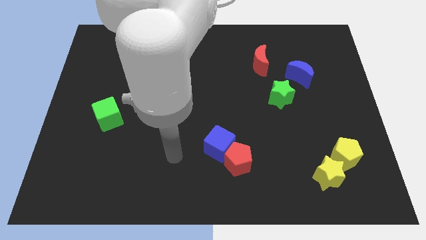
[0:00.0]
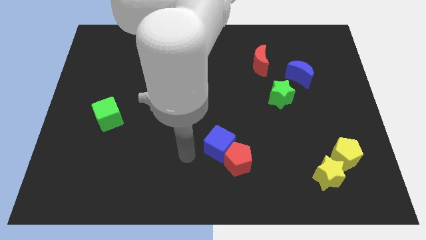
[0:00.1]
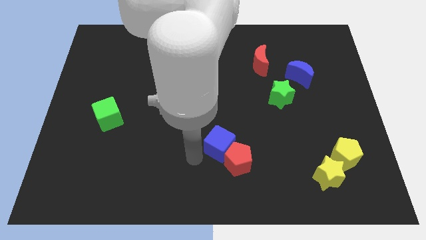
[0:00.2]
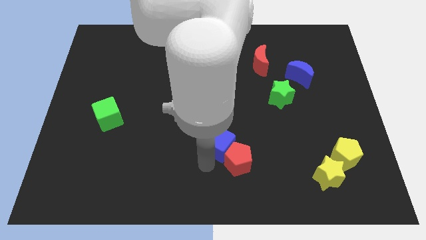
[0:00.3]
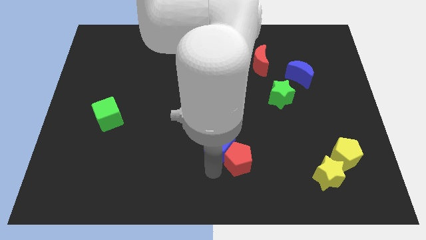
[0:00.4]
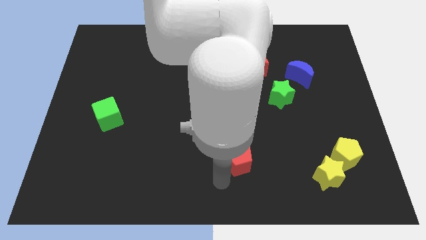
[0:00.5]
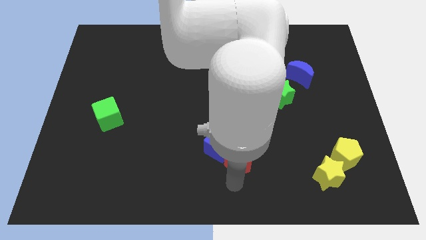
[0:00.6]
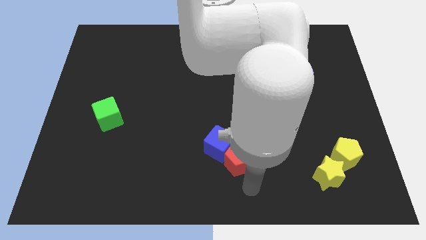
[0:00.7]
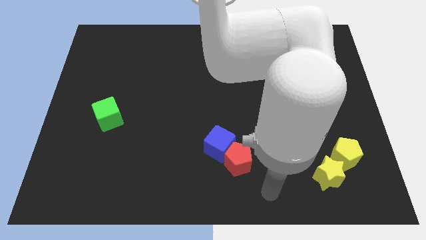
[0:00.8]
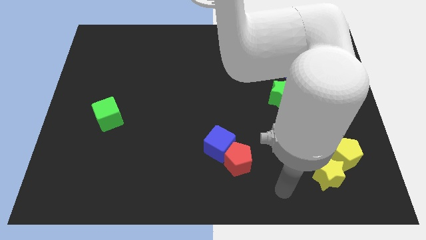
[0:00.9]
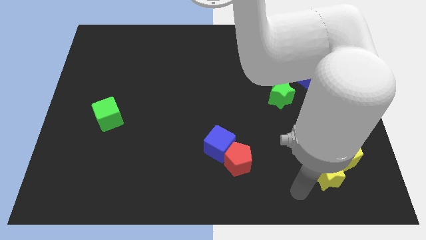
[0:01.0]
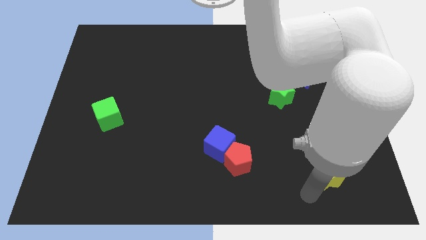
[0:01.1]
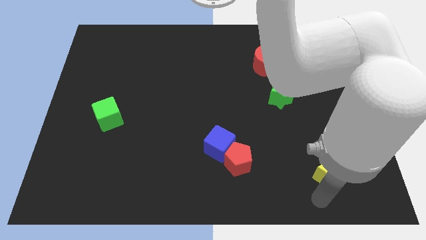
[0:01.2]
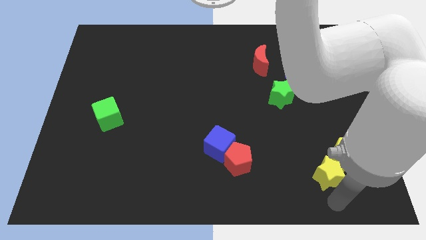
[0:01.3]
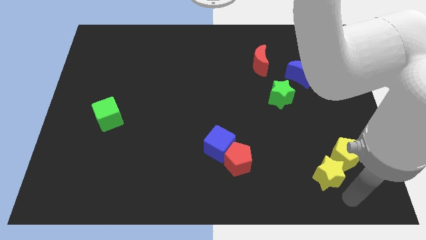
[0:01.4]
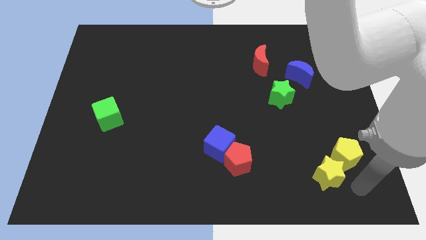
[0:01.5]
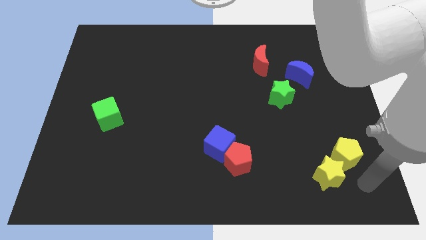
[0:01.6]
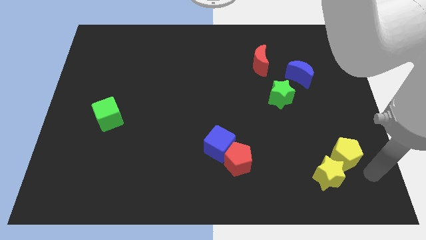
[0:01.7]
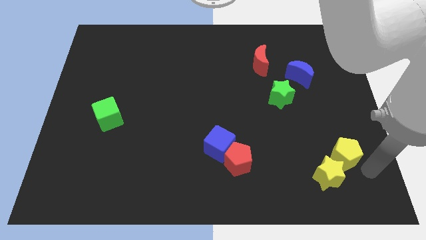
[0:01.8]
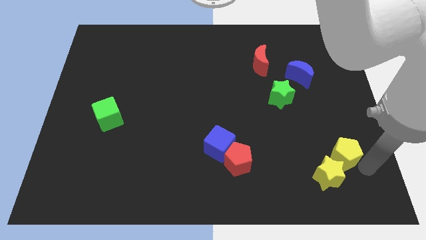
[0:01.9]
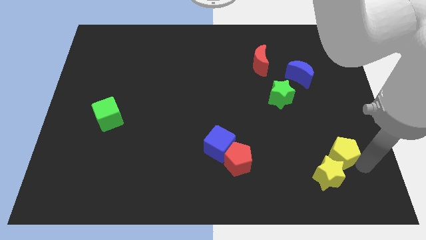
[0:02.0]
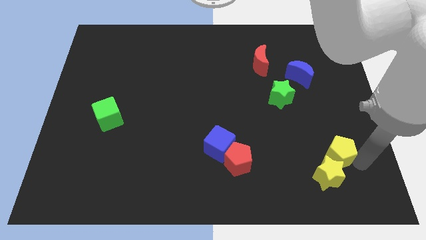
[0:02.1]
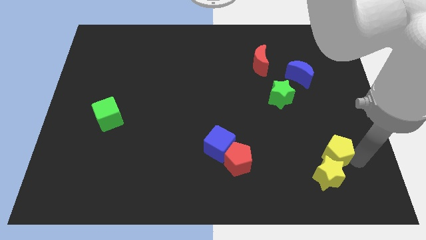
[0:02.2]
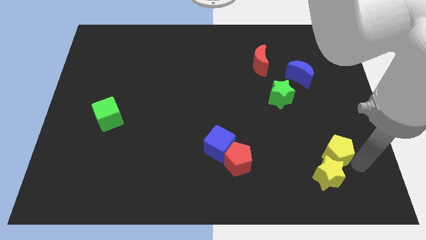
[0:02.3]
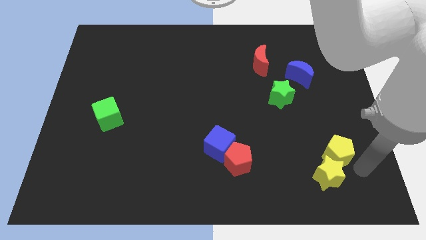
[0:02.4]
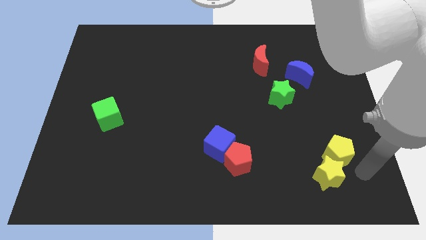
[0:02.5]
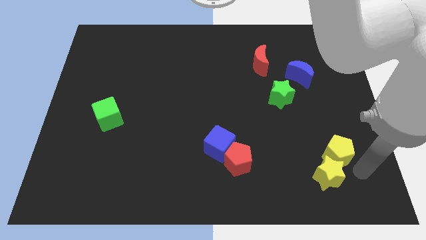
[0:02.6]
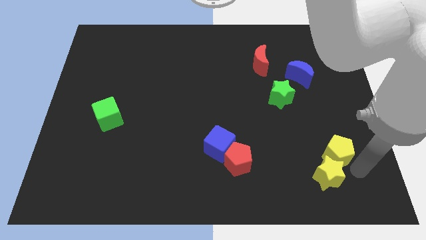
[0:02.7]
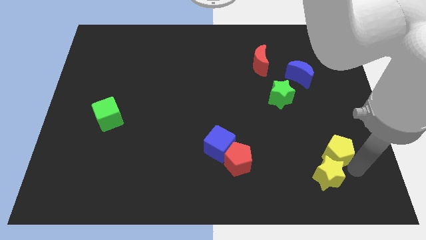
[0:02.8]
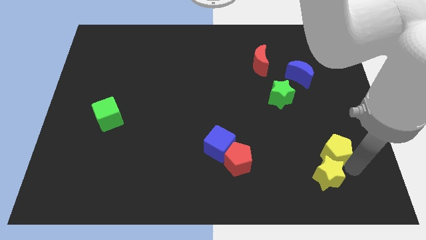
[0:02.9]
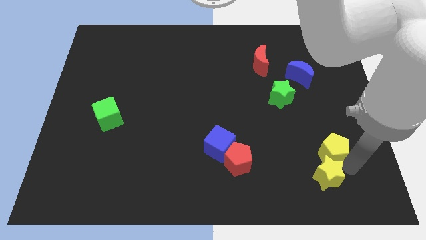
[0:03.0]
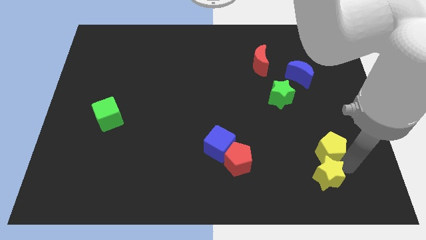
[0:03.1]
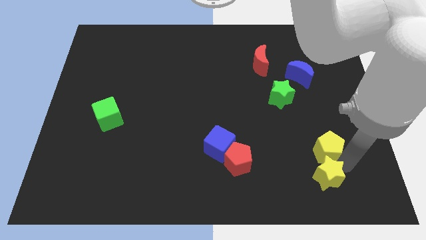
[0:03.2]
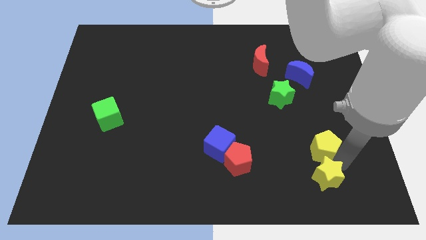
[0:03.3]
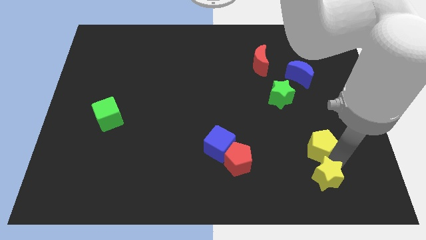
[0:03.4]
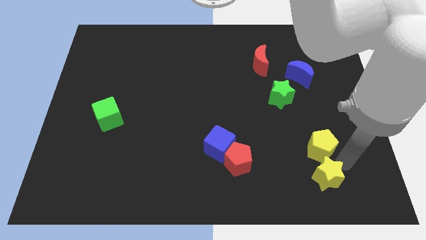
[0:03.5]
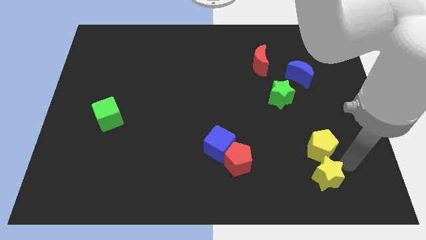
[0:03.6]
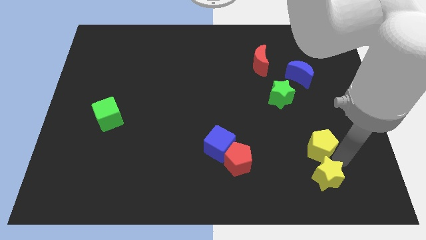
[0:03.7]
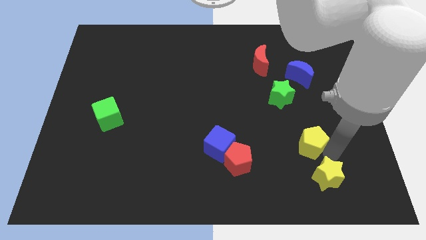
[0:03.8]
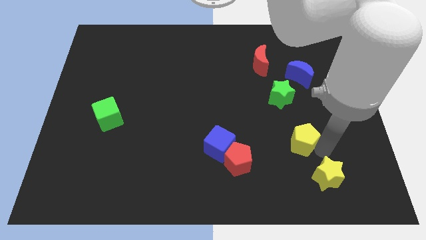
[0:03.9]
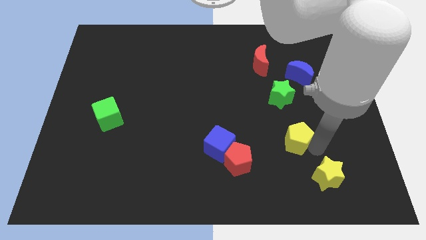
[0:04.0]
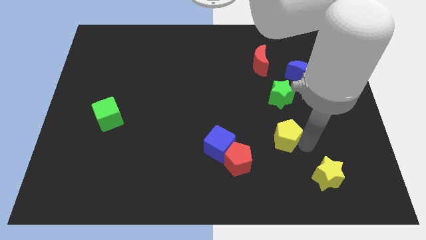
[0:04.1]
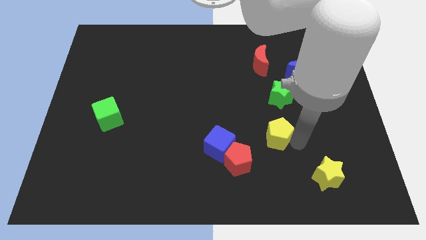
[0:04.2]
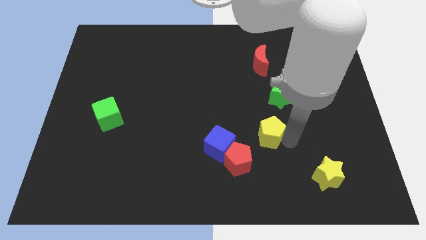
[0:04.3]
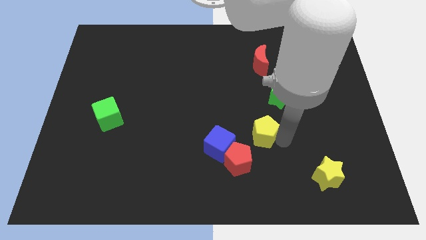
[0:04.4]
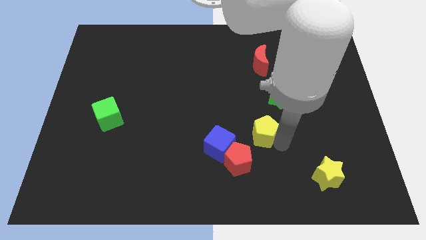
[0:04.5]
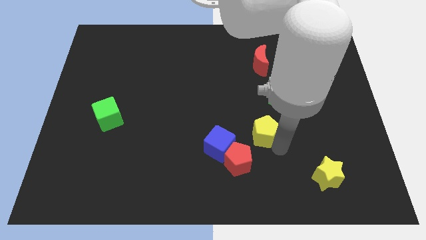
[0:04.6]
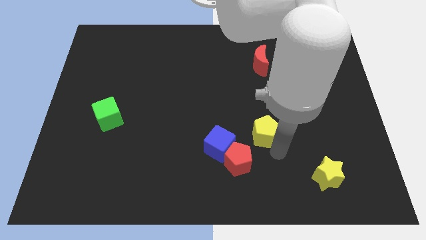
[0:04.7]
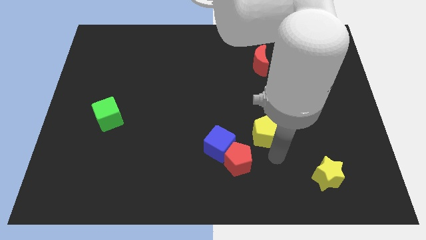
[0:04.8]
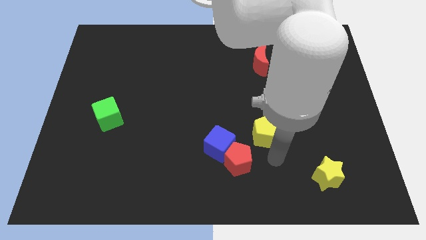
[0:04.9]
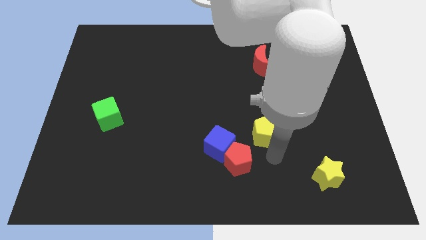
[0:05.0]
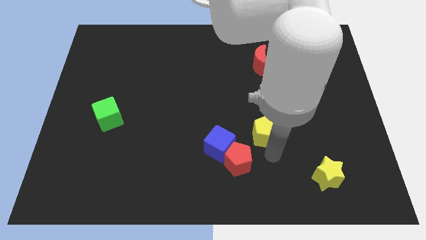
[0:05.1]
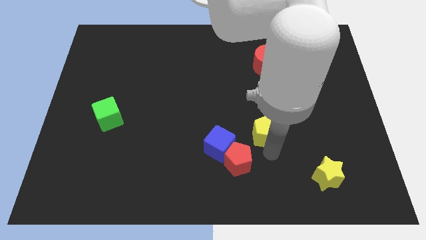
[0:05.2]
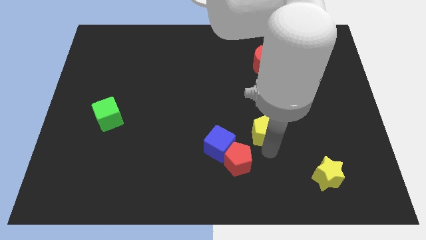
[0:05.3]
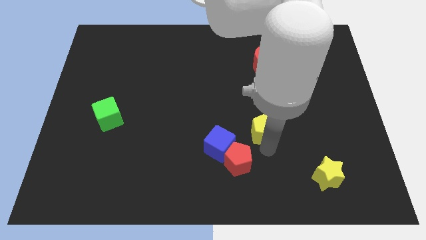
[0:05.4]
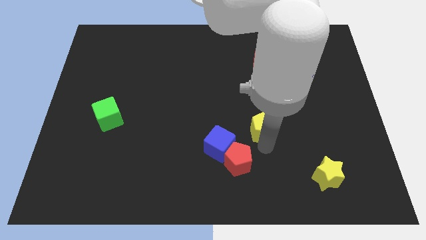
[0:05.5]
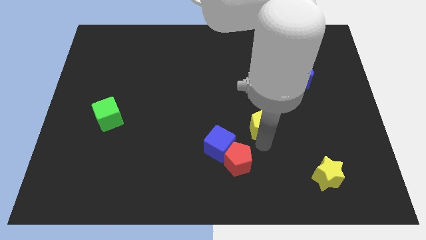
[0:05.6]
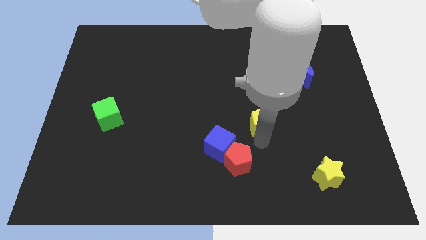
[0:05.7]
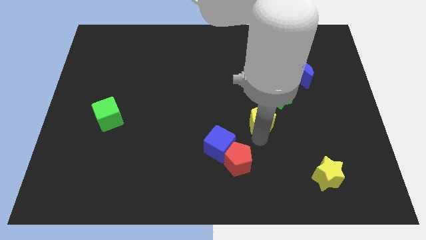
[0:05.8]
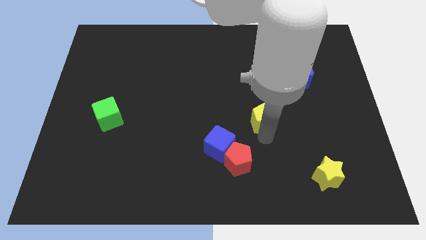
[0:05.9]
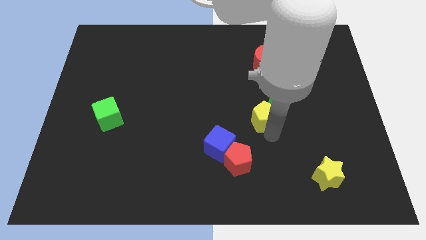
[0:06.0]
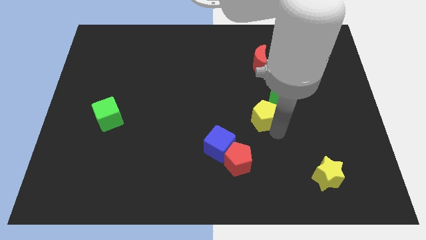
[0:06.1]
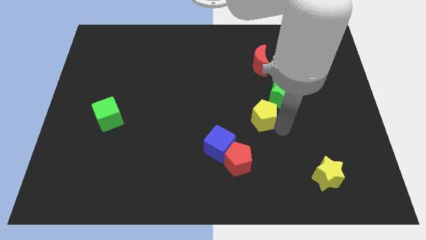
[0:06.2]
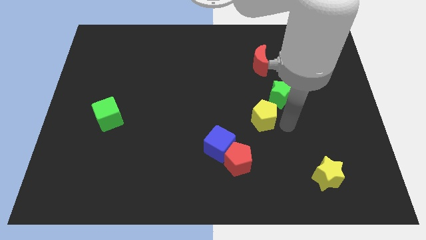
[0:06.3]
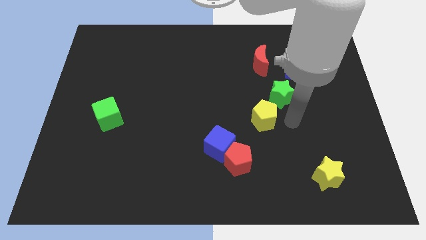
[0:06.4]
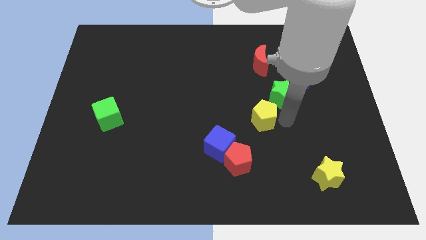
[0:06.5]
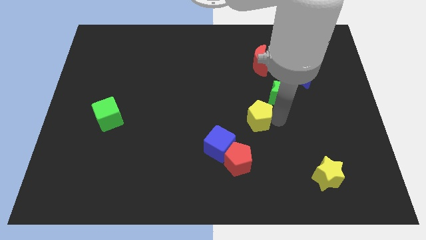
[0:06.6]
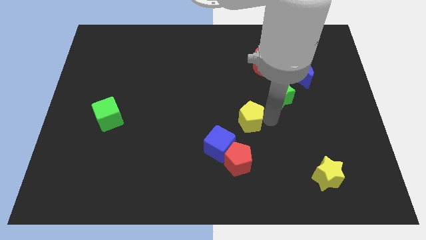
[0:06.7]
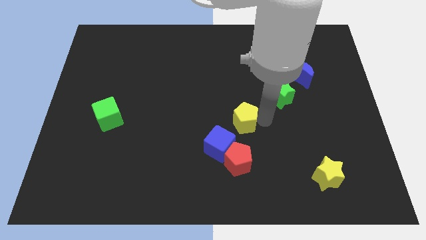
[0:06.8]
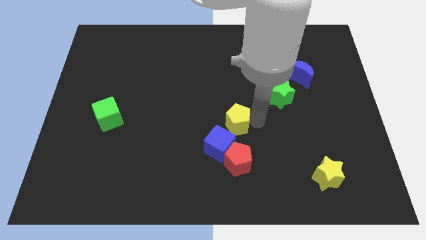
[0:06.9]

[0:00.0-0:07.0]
put the yellow pentagon to the top side of the blue cube

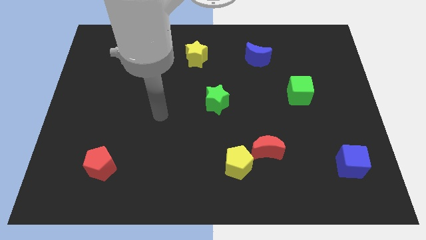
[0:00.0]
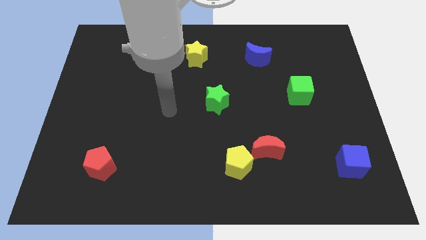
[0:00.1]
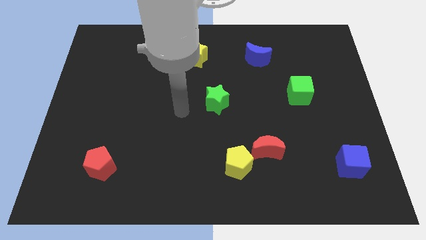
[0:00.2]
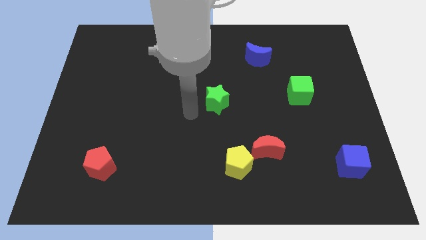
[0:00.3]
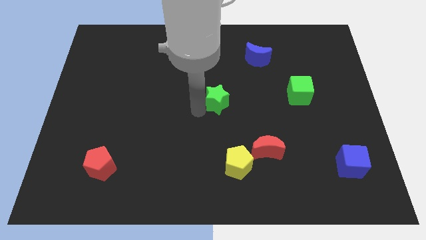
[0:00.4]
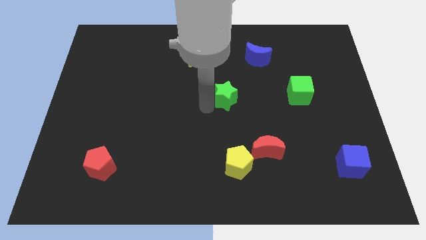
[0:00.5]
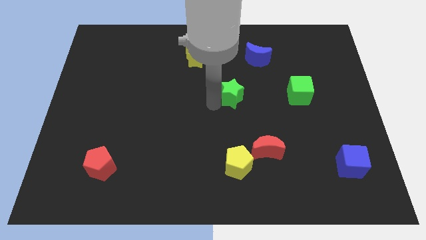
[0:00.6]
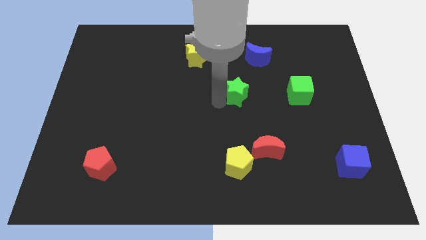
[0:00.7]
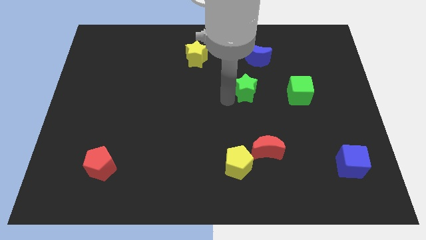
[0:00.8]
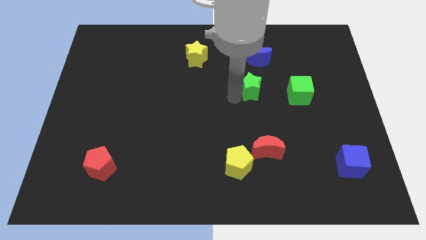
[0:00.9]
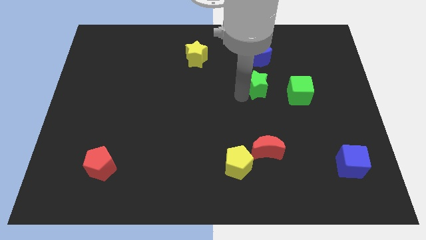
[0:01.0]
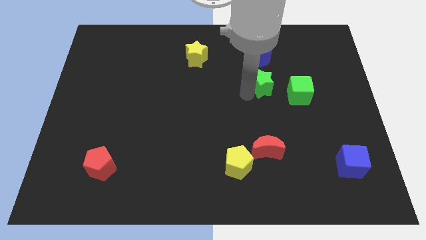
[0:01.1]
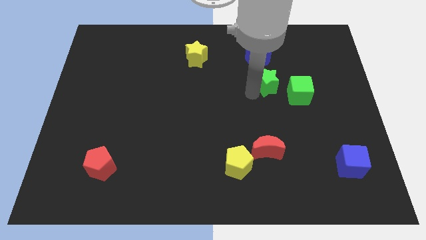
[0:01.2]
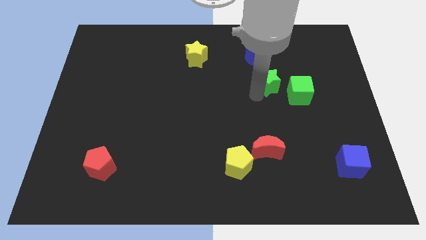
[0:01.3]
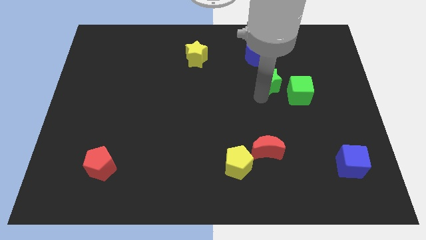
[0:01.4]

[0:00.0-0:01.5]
push the green star to the bottom right side of the blue moon
